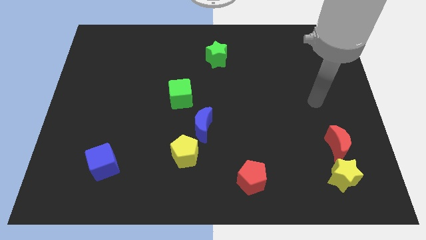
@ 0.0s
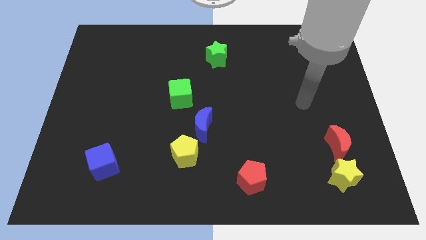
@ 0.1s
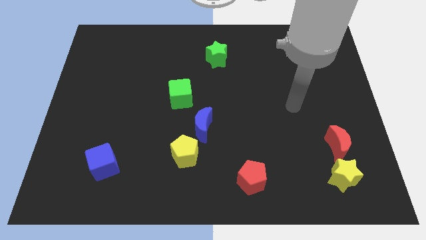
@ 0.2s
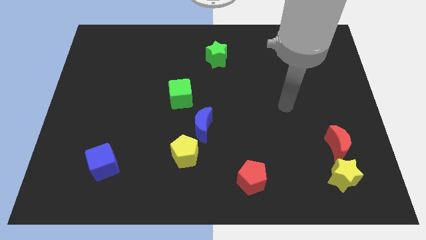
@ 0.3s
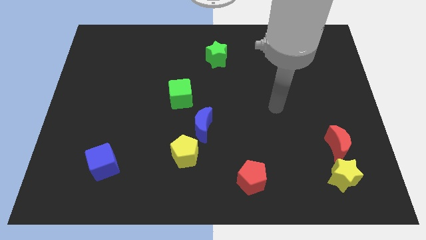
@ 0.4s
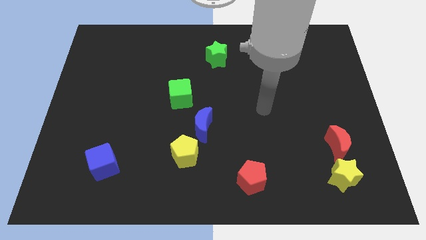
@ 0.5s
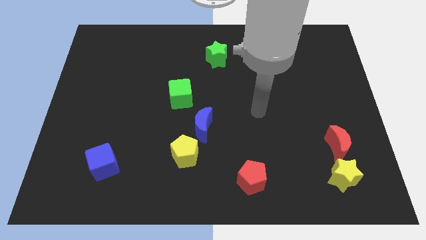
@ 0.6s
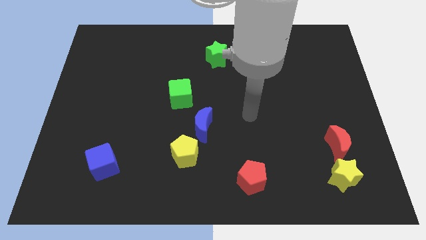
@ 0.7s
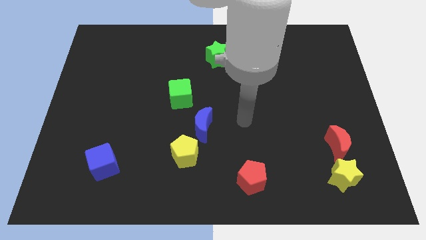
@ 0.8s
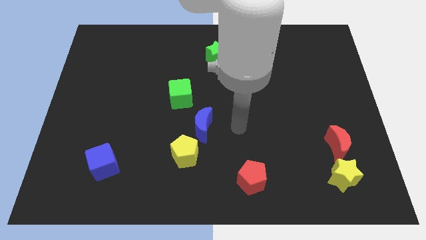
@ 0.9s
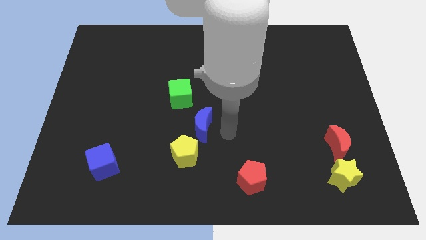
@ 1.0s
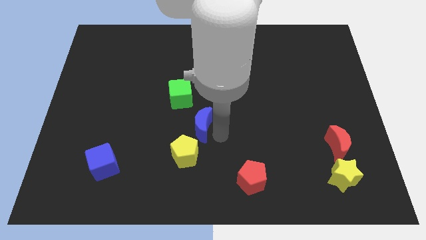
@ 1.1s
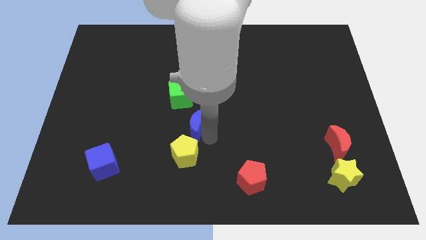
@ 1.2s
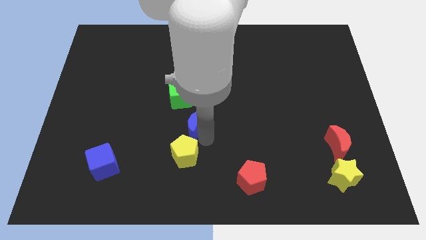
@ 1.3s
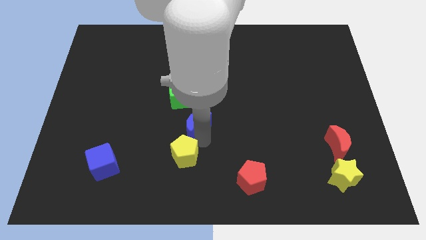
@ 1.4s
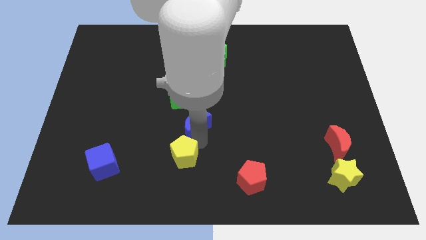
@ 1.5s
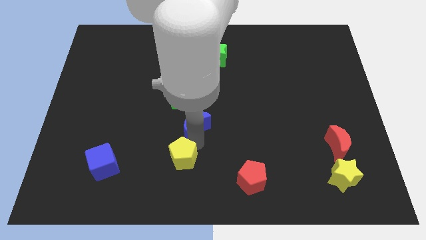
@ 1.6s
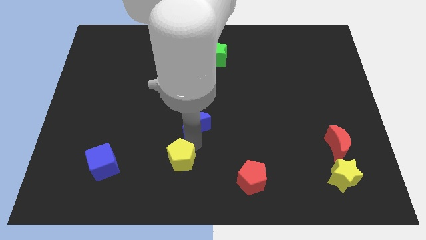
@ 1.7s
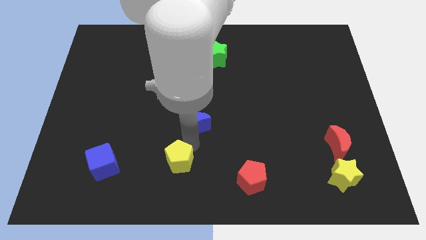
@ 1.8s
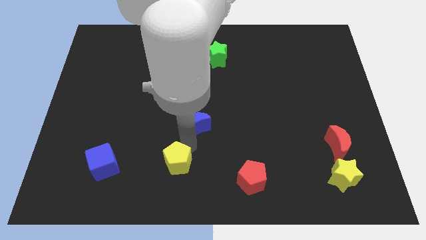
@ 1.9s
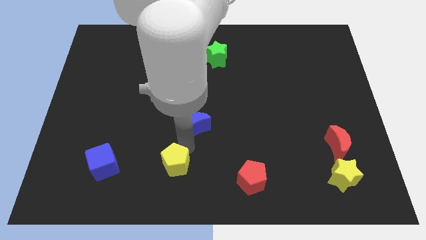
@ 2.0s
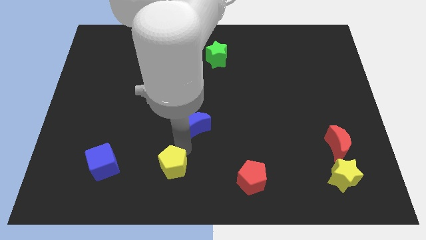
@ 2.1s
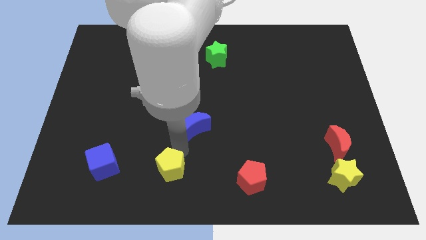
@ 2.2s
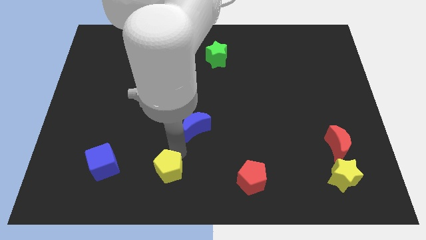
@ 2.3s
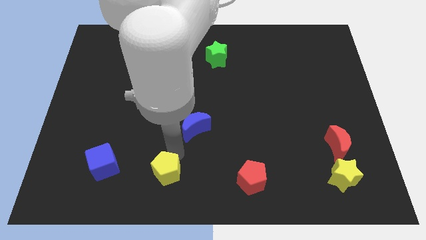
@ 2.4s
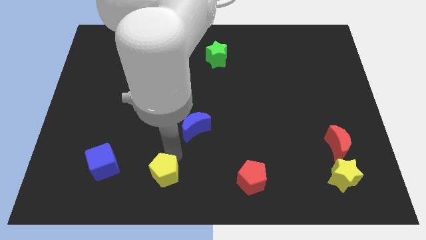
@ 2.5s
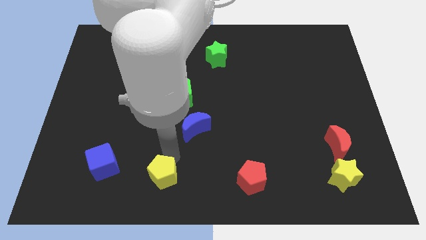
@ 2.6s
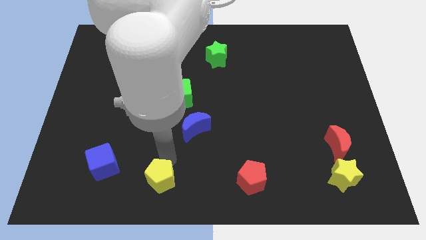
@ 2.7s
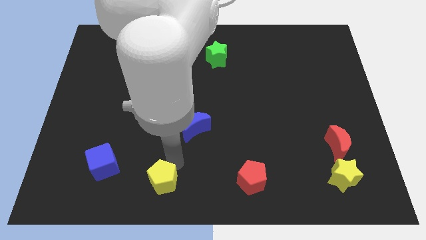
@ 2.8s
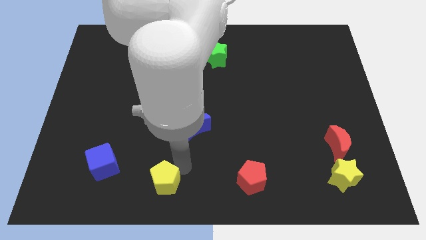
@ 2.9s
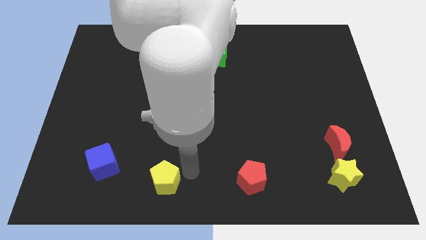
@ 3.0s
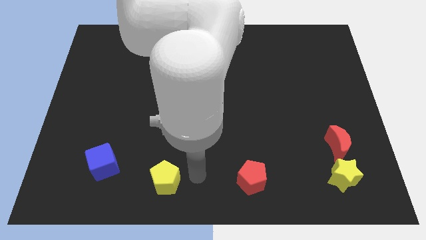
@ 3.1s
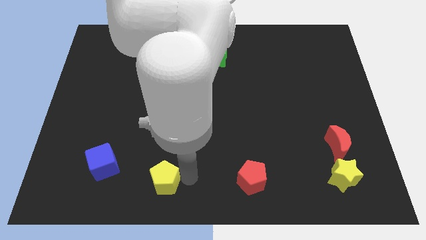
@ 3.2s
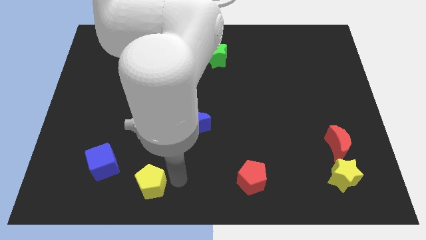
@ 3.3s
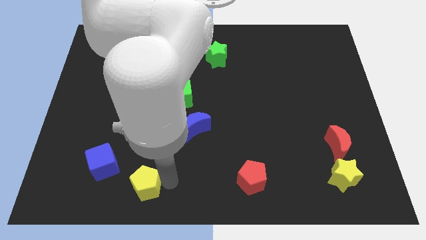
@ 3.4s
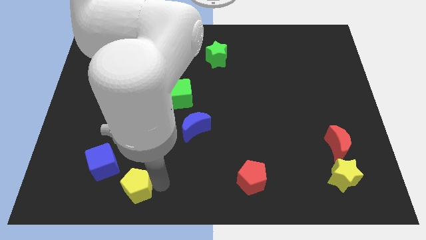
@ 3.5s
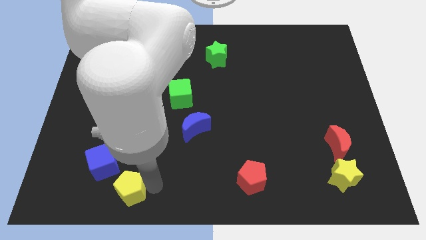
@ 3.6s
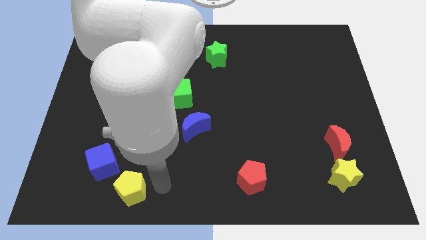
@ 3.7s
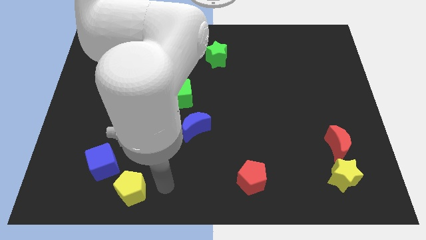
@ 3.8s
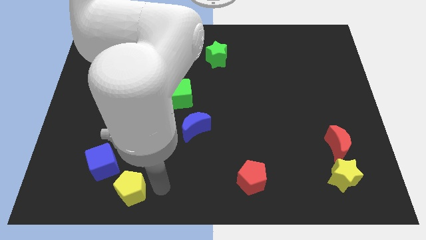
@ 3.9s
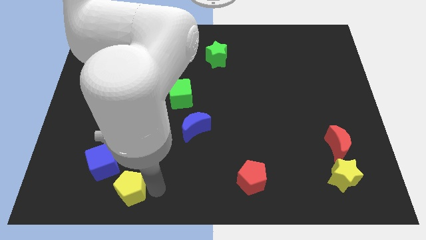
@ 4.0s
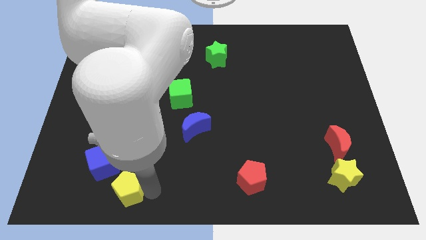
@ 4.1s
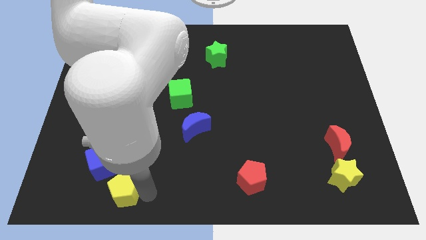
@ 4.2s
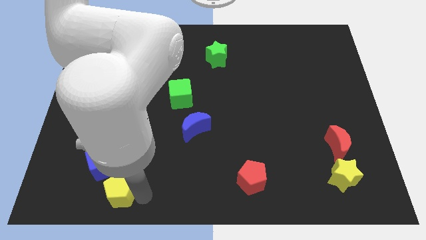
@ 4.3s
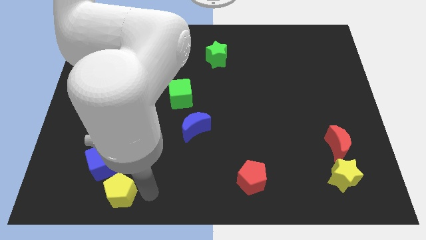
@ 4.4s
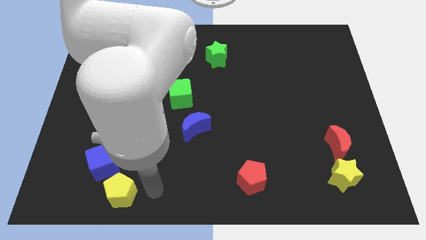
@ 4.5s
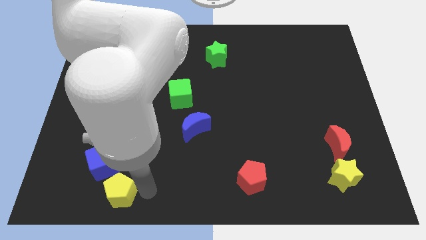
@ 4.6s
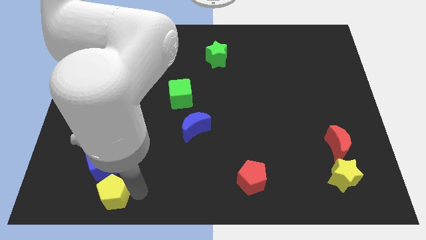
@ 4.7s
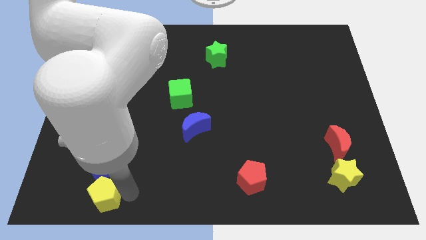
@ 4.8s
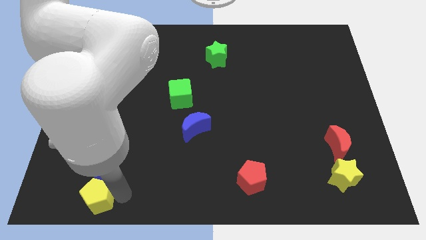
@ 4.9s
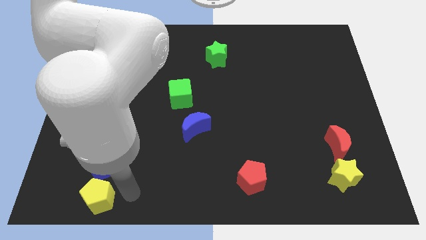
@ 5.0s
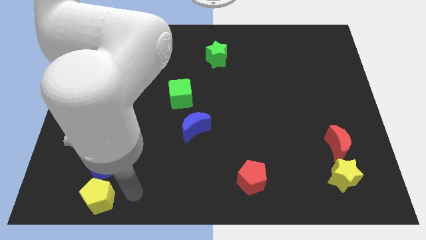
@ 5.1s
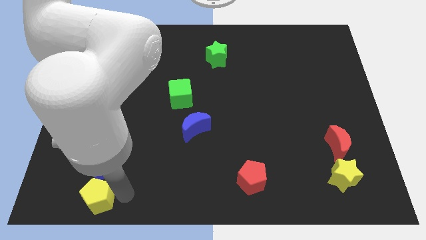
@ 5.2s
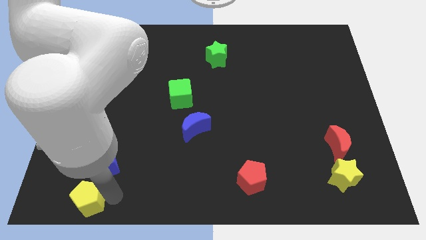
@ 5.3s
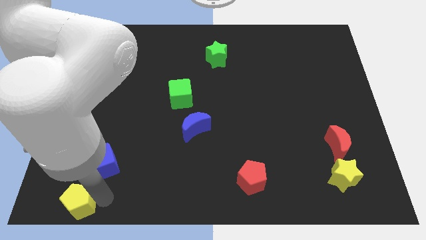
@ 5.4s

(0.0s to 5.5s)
slide the yellow pentagon to the bottom left corner
